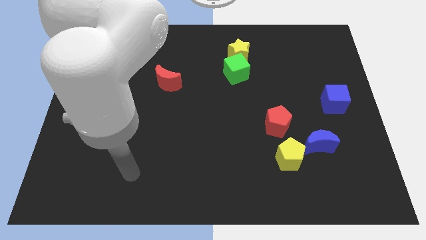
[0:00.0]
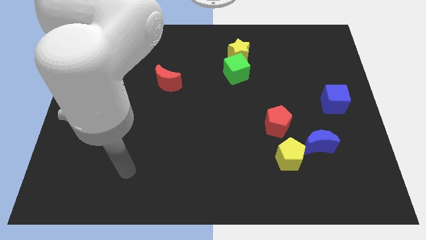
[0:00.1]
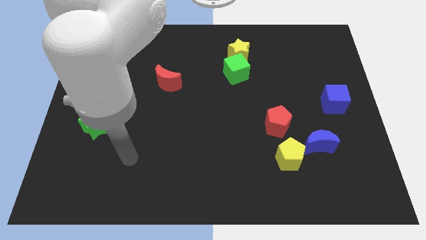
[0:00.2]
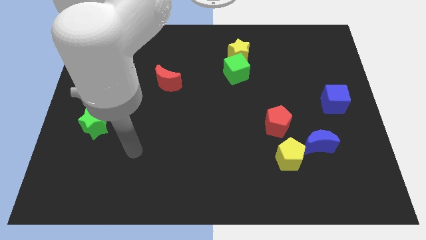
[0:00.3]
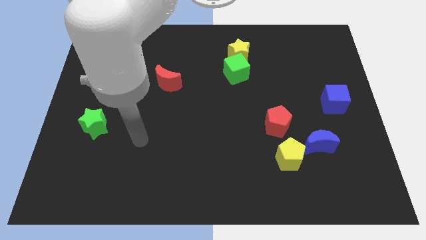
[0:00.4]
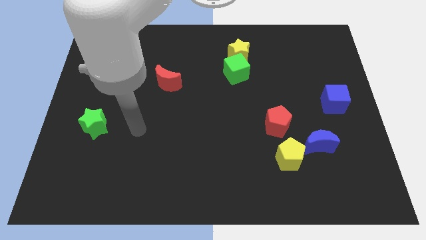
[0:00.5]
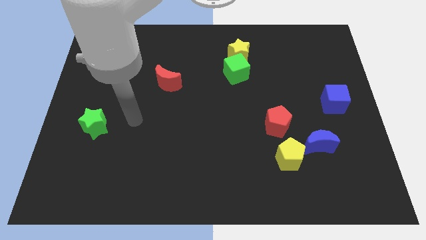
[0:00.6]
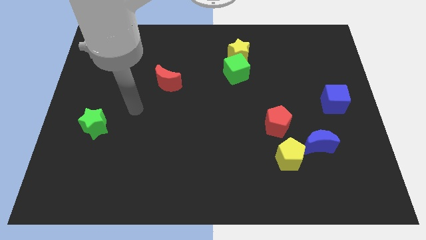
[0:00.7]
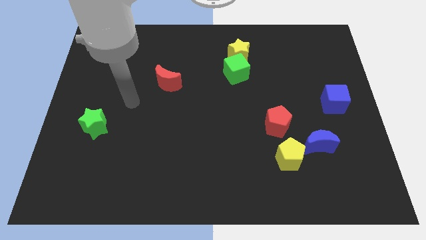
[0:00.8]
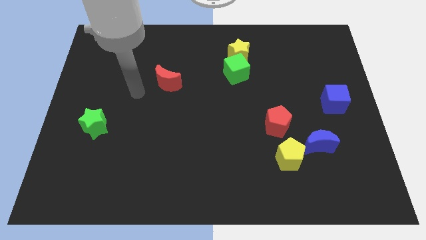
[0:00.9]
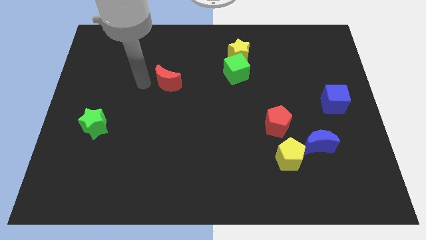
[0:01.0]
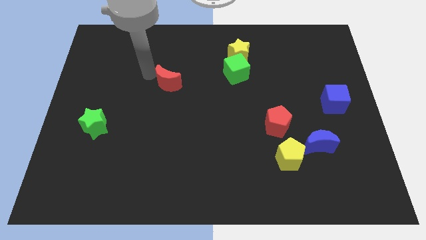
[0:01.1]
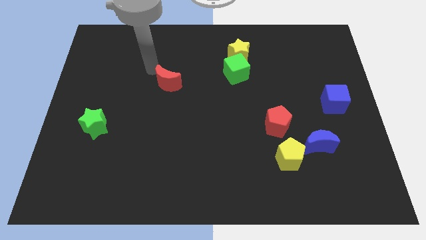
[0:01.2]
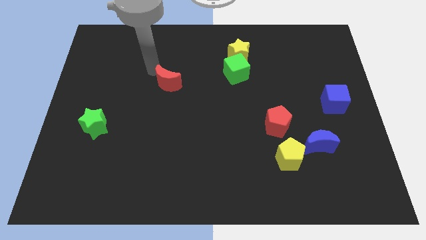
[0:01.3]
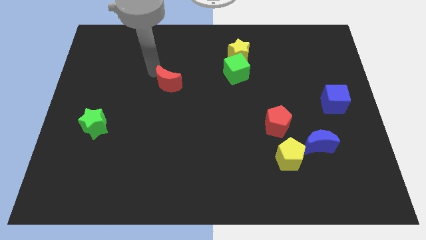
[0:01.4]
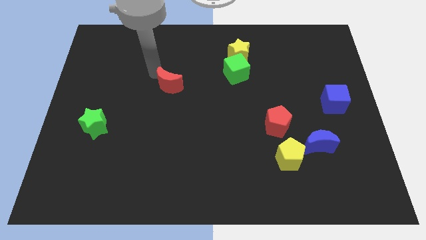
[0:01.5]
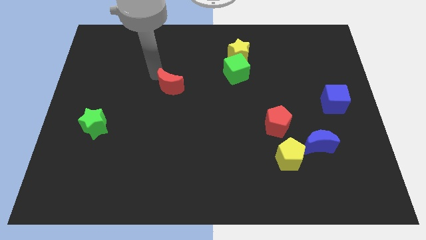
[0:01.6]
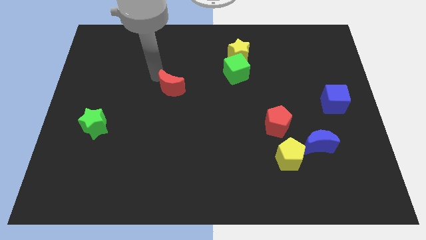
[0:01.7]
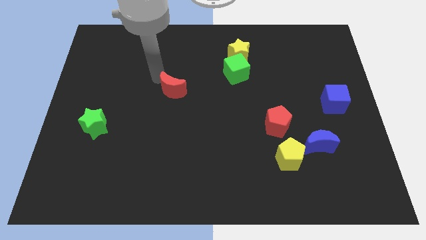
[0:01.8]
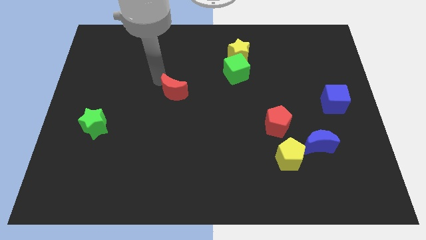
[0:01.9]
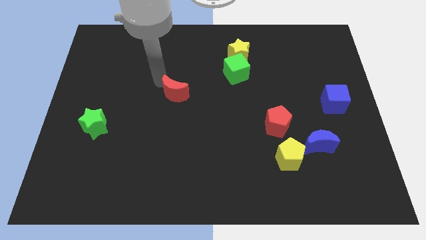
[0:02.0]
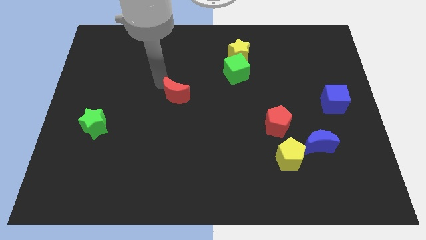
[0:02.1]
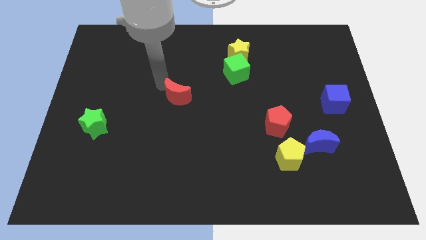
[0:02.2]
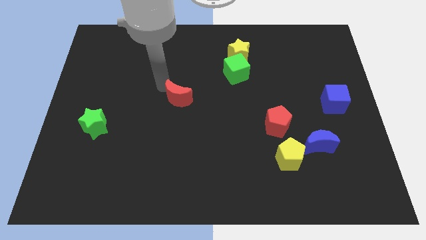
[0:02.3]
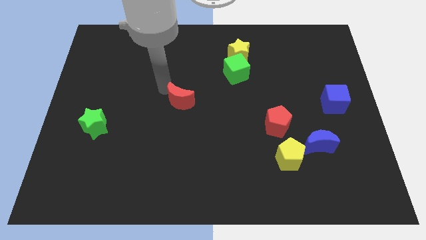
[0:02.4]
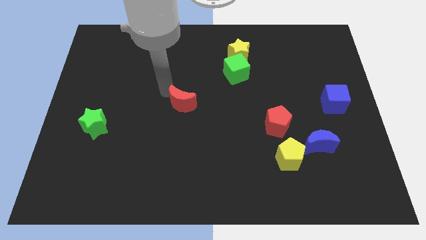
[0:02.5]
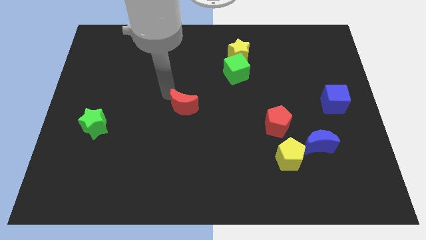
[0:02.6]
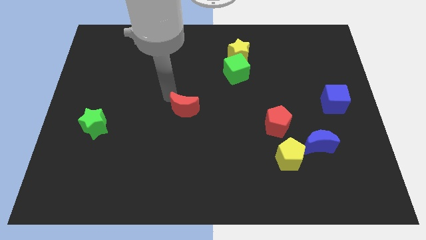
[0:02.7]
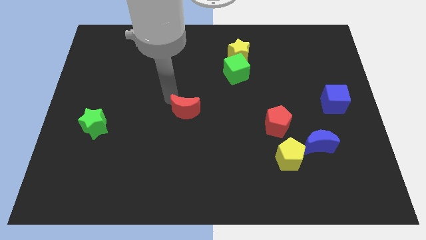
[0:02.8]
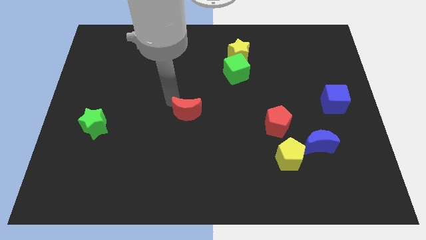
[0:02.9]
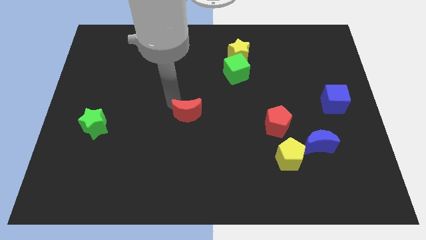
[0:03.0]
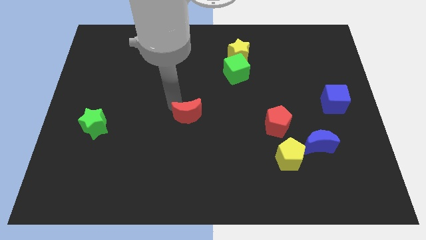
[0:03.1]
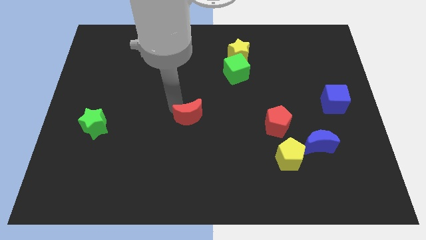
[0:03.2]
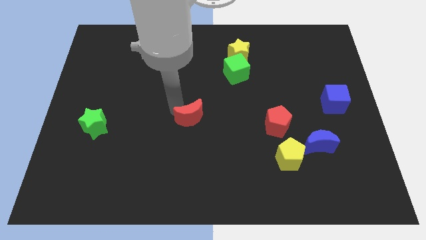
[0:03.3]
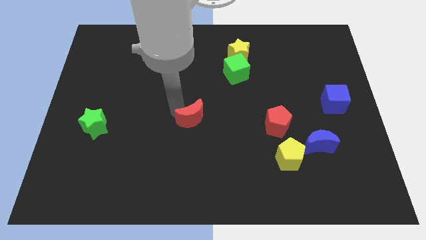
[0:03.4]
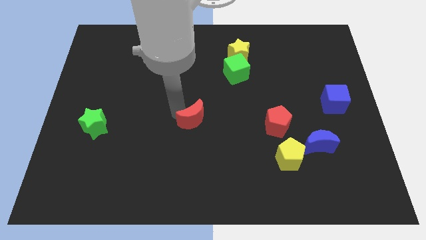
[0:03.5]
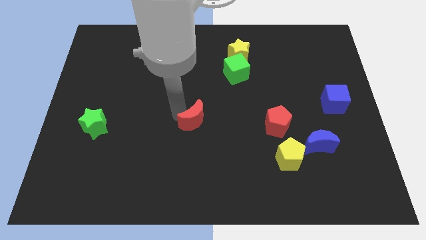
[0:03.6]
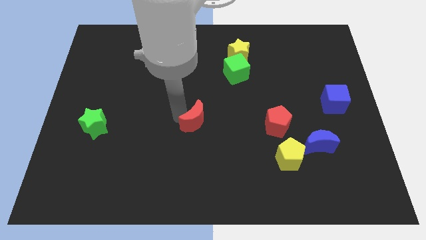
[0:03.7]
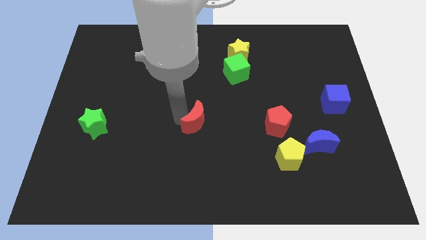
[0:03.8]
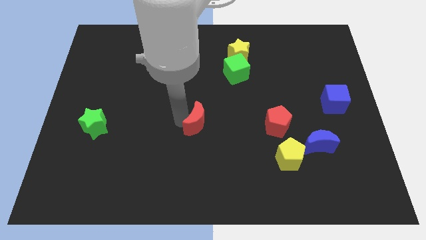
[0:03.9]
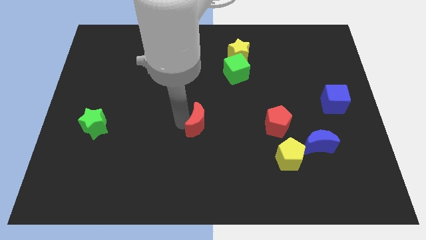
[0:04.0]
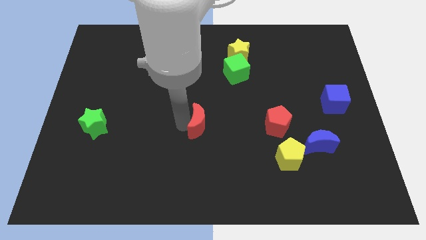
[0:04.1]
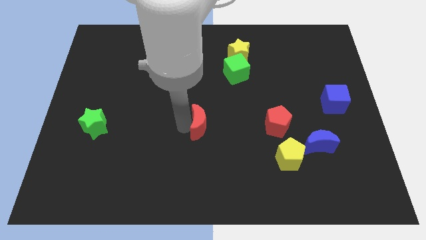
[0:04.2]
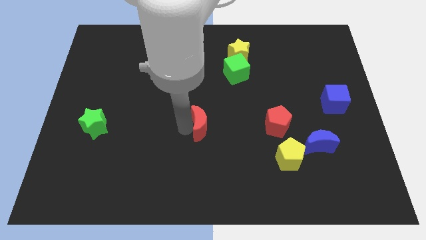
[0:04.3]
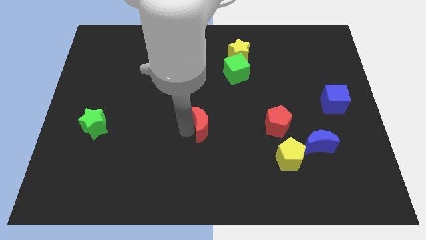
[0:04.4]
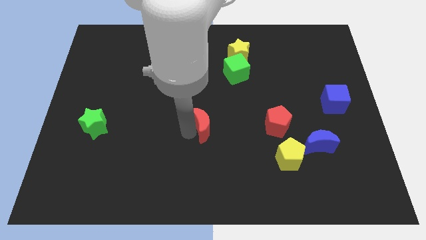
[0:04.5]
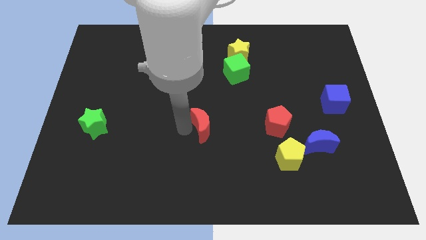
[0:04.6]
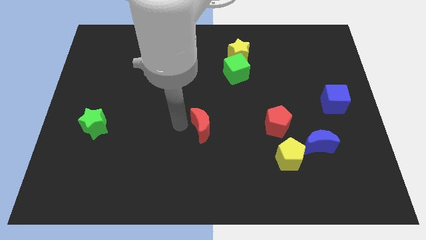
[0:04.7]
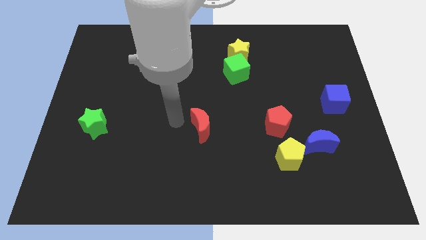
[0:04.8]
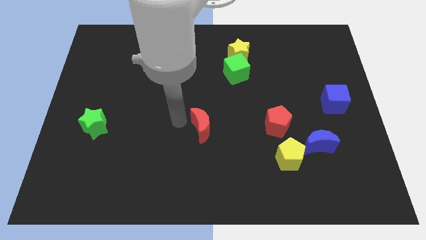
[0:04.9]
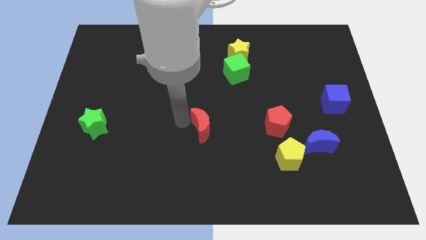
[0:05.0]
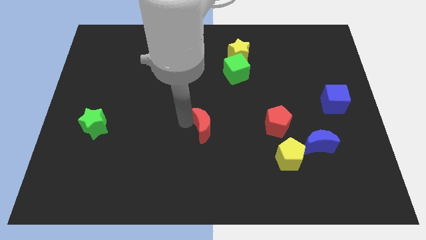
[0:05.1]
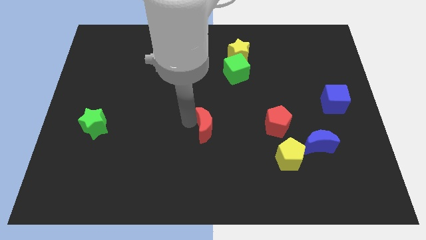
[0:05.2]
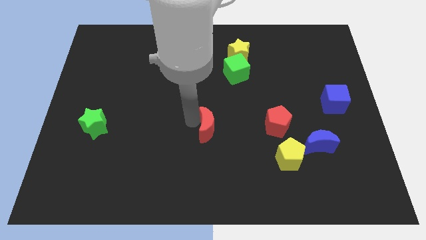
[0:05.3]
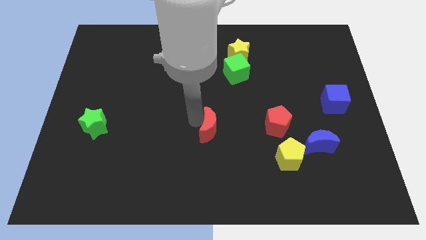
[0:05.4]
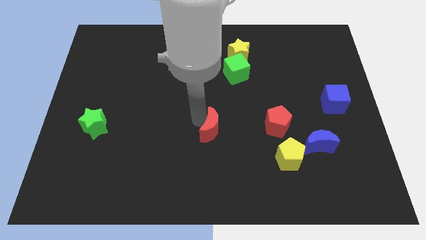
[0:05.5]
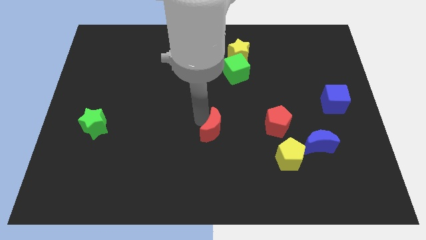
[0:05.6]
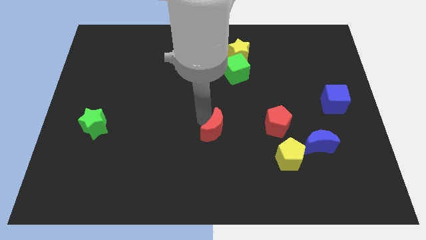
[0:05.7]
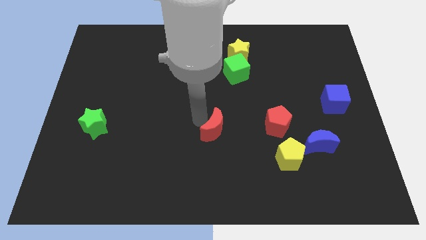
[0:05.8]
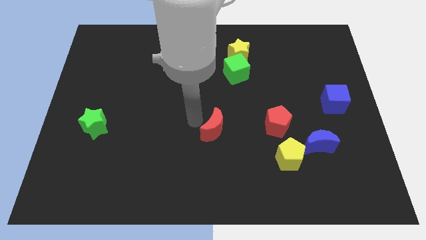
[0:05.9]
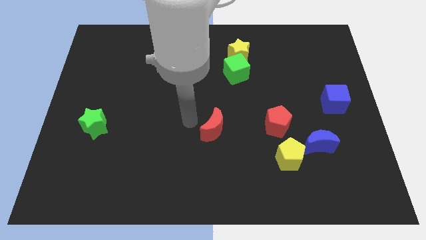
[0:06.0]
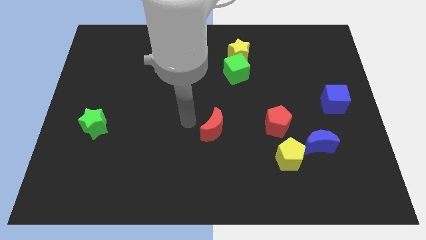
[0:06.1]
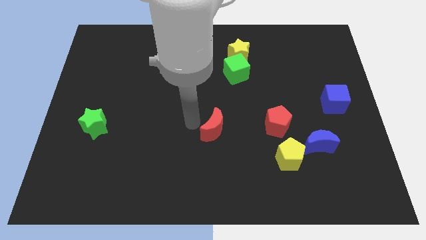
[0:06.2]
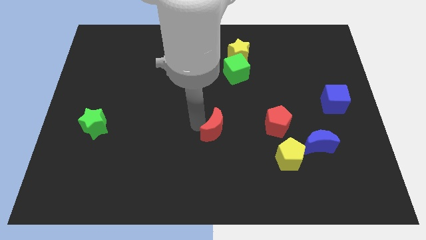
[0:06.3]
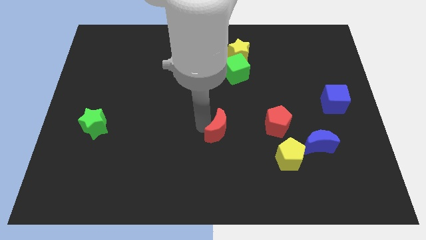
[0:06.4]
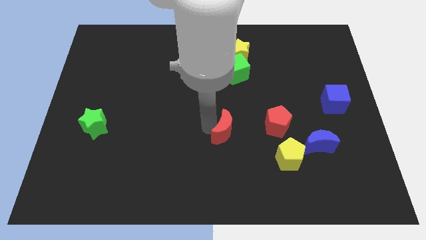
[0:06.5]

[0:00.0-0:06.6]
move the red moon downwards and to the right

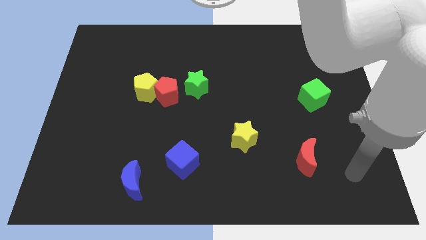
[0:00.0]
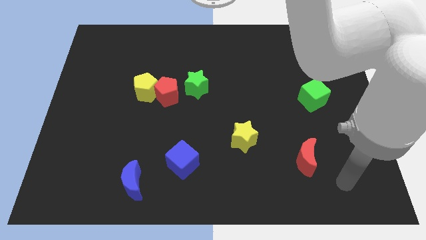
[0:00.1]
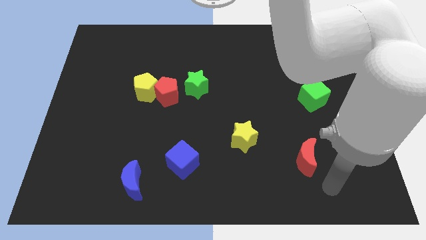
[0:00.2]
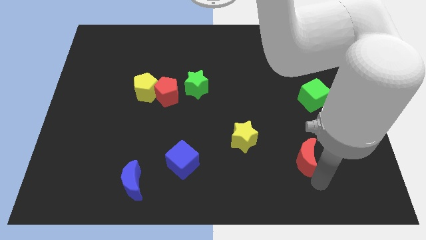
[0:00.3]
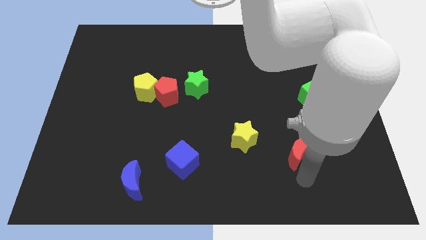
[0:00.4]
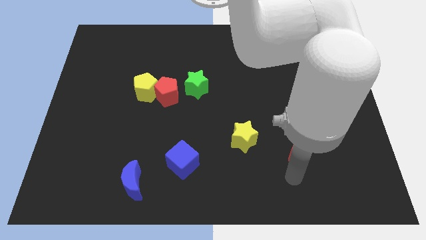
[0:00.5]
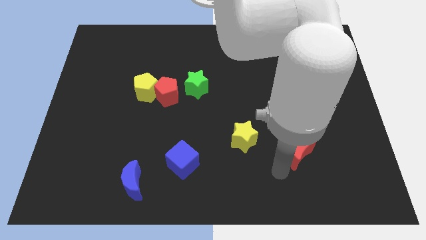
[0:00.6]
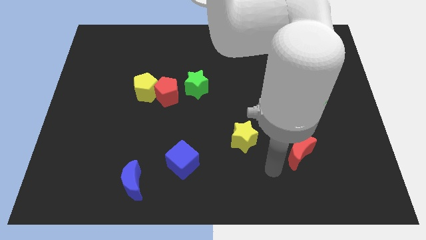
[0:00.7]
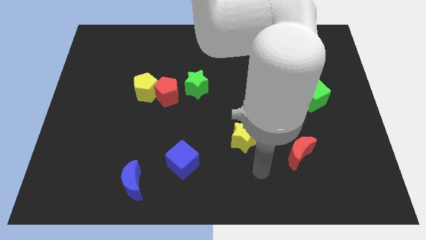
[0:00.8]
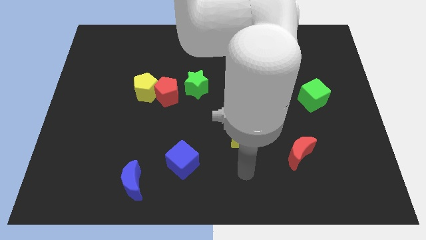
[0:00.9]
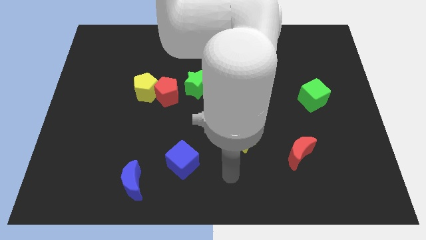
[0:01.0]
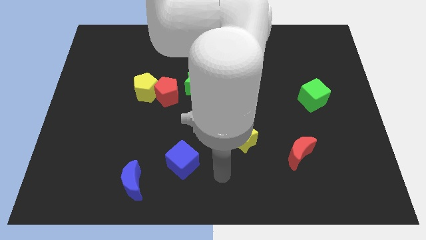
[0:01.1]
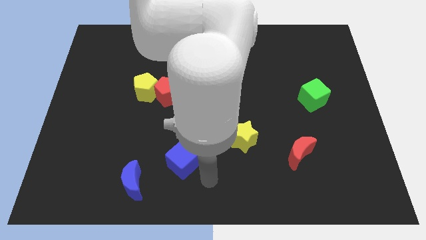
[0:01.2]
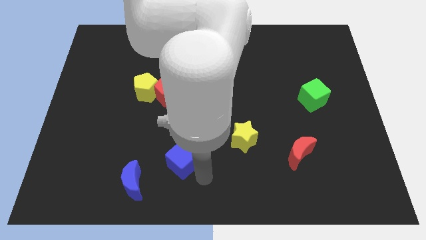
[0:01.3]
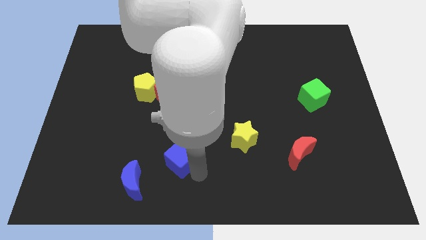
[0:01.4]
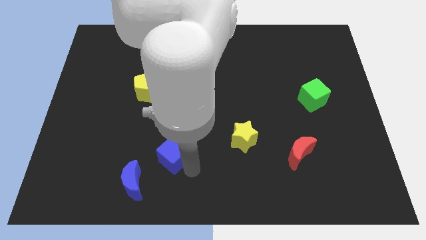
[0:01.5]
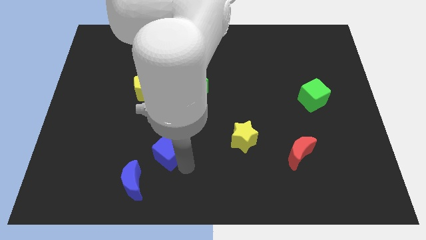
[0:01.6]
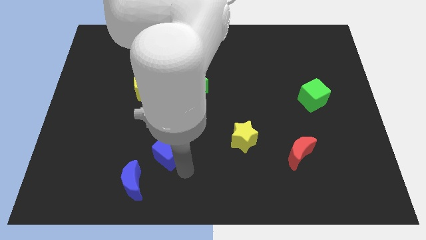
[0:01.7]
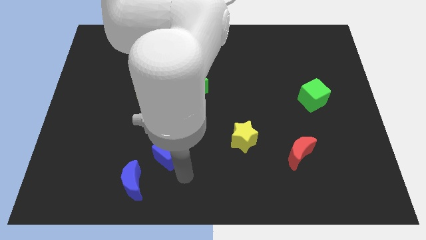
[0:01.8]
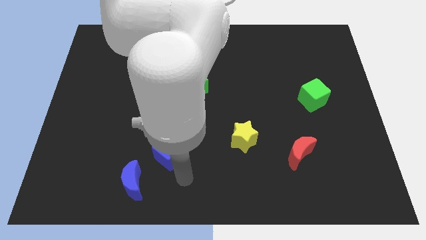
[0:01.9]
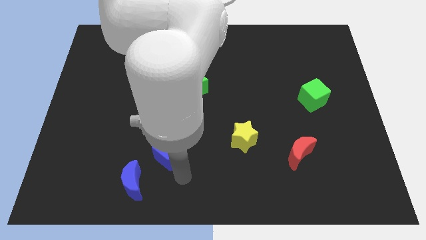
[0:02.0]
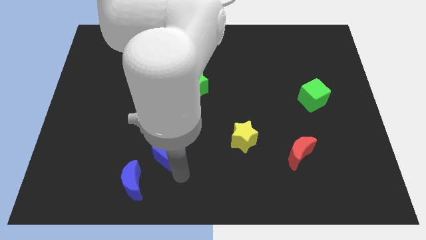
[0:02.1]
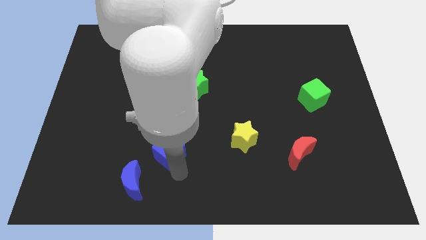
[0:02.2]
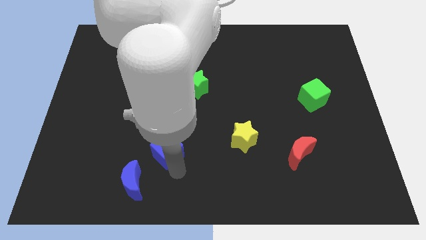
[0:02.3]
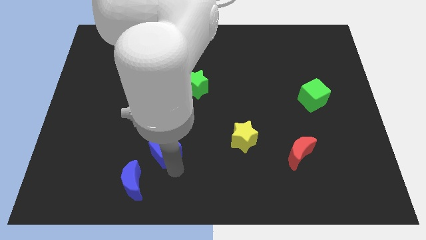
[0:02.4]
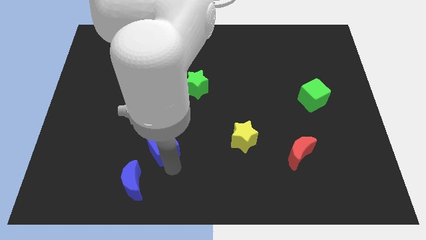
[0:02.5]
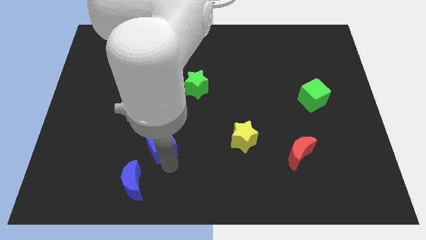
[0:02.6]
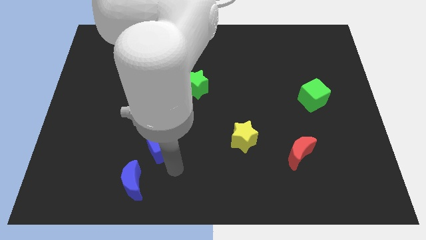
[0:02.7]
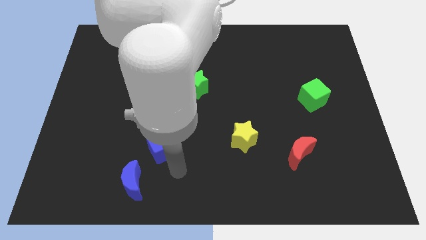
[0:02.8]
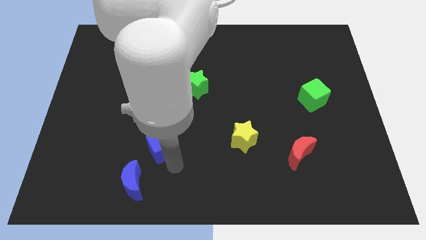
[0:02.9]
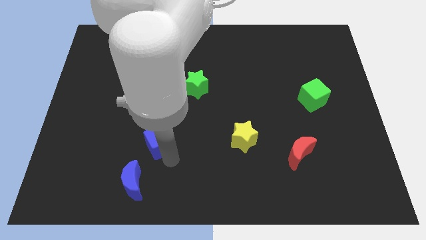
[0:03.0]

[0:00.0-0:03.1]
slide the blue cube up and to the left diagonally a bit
